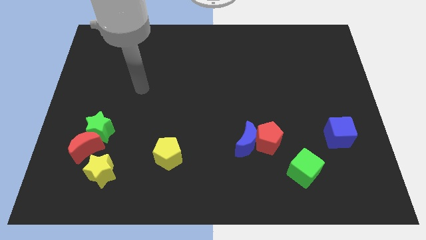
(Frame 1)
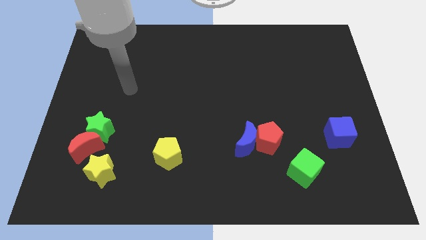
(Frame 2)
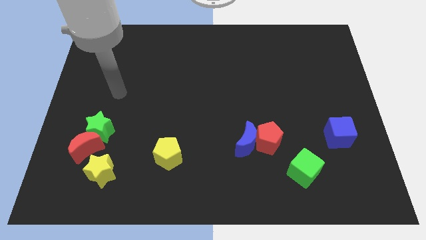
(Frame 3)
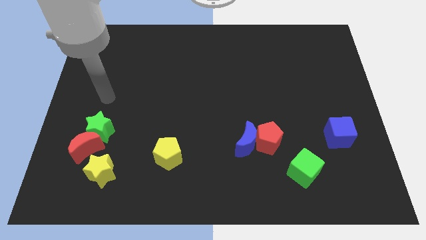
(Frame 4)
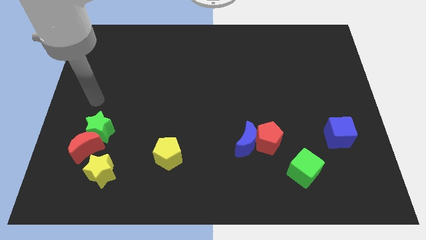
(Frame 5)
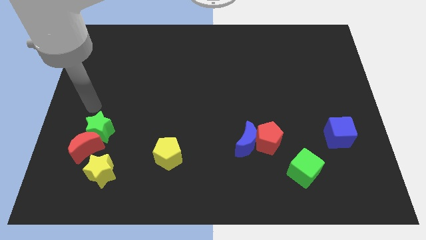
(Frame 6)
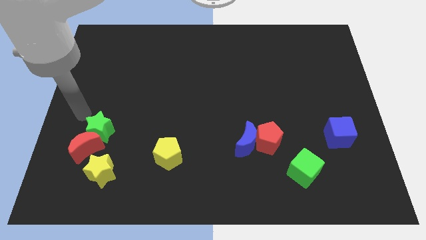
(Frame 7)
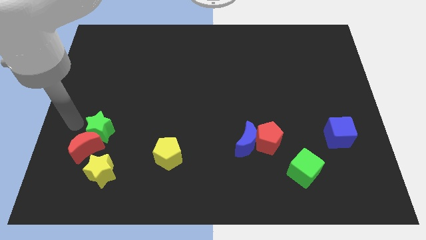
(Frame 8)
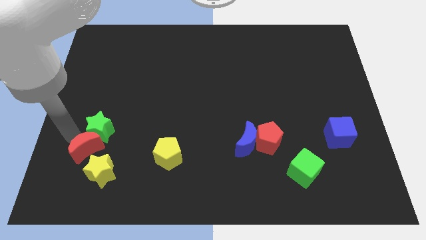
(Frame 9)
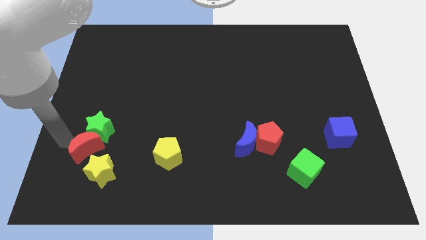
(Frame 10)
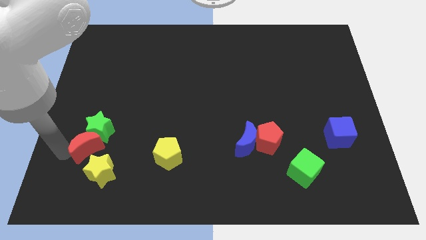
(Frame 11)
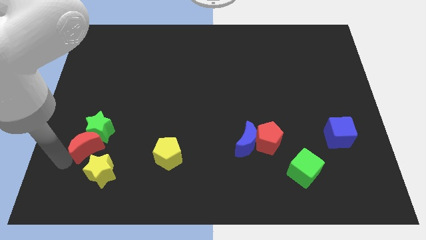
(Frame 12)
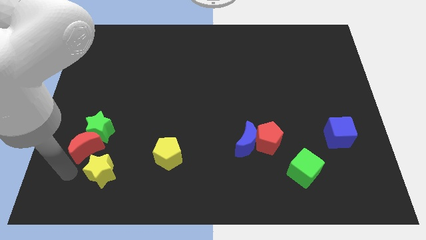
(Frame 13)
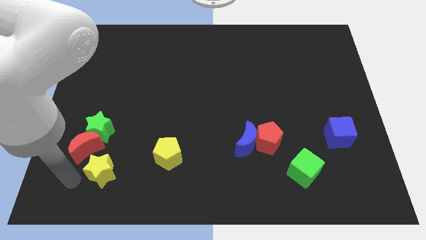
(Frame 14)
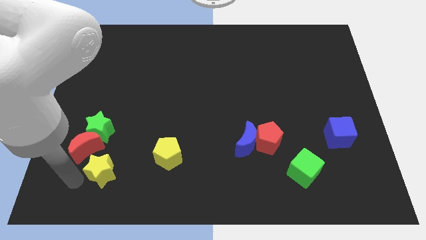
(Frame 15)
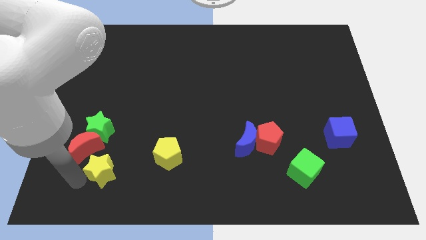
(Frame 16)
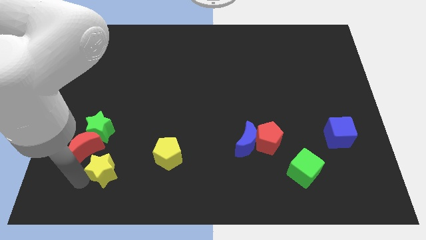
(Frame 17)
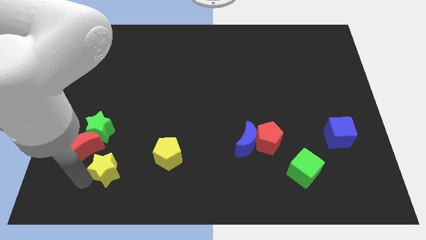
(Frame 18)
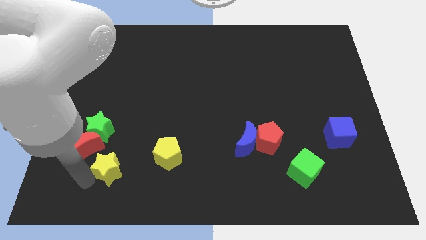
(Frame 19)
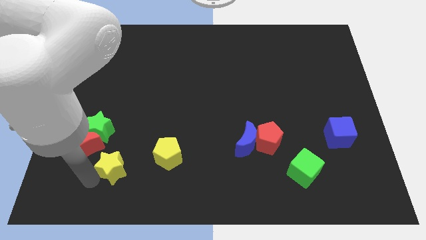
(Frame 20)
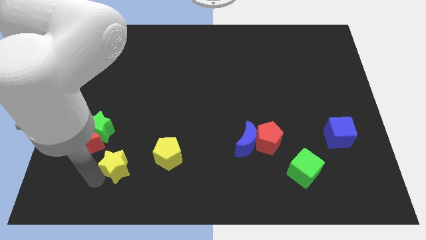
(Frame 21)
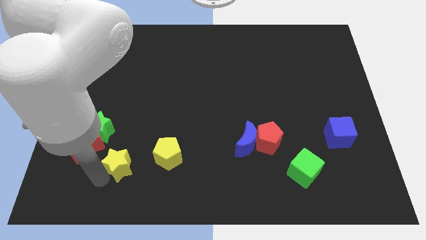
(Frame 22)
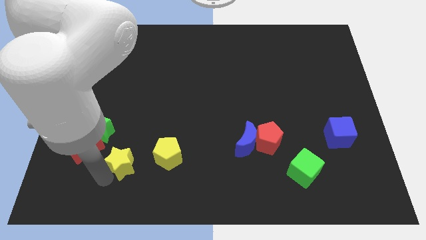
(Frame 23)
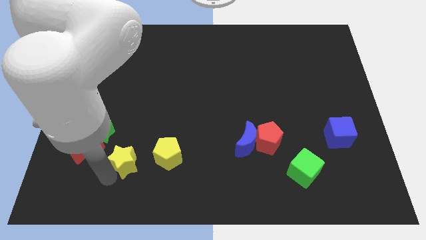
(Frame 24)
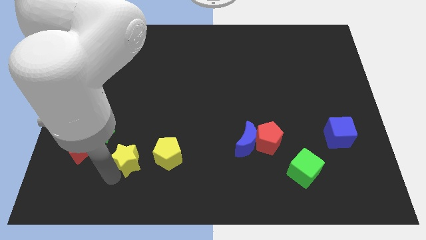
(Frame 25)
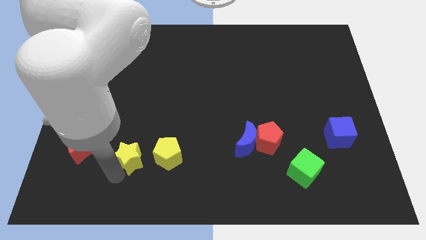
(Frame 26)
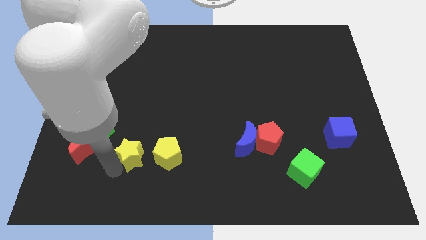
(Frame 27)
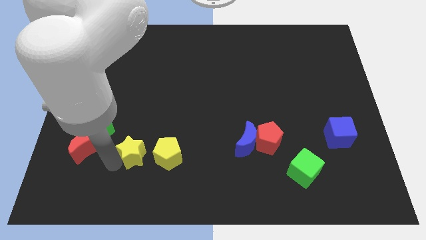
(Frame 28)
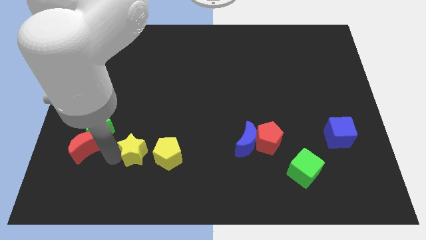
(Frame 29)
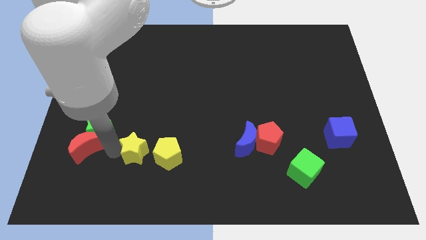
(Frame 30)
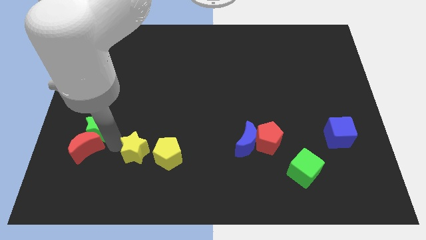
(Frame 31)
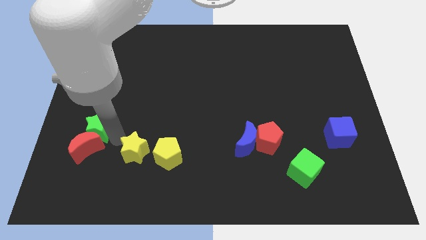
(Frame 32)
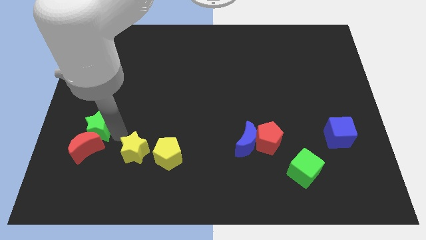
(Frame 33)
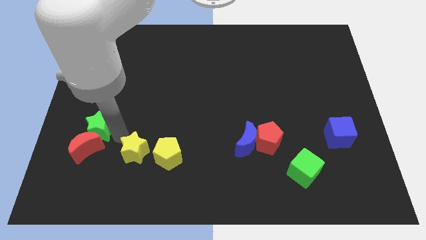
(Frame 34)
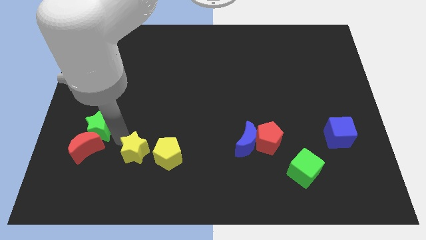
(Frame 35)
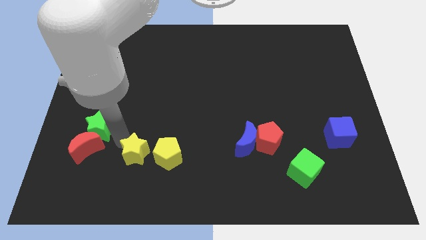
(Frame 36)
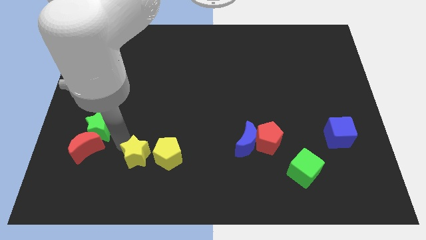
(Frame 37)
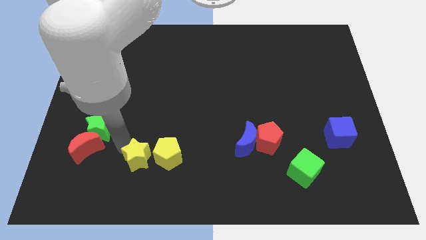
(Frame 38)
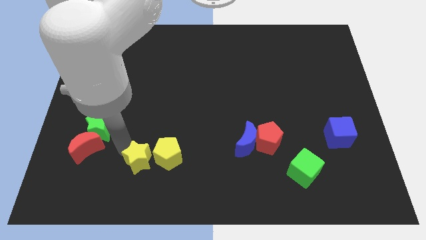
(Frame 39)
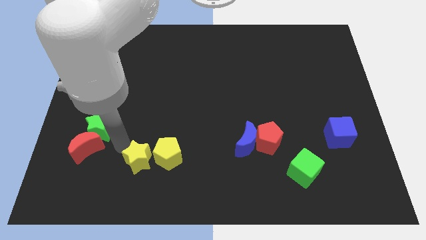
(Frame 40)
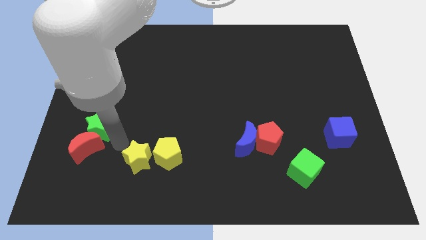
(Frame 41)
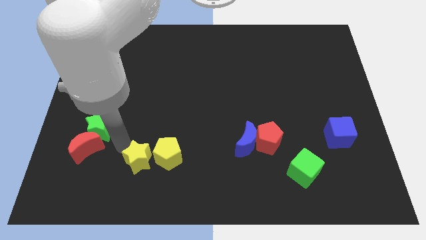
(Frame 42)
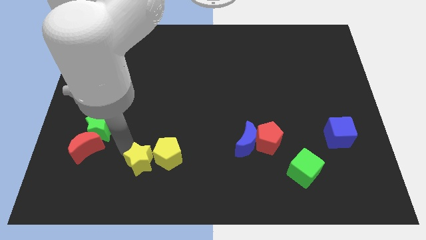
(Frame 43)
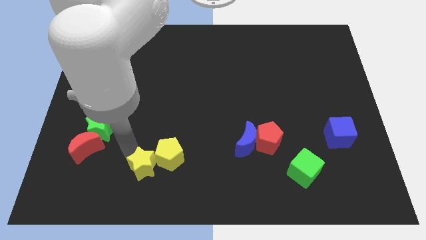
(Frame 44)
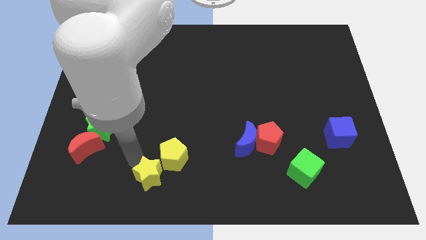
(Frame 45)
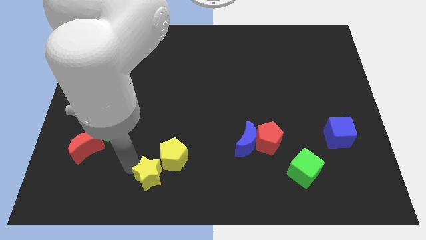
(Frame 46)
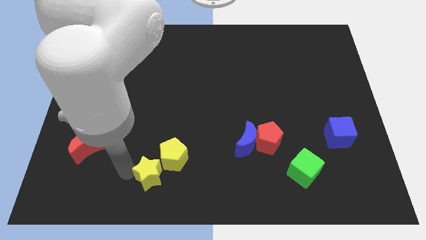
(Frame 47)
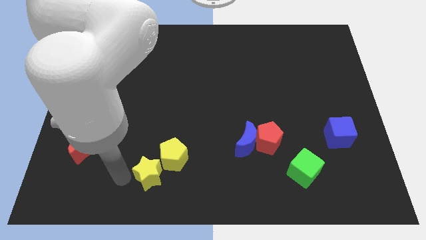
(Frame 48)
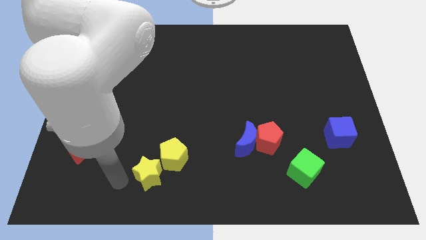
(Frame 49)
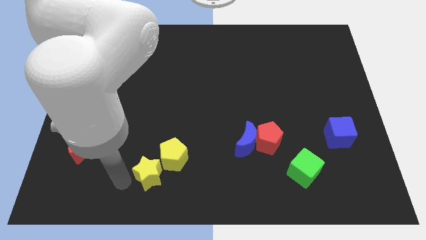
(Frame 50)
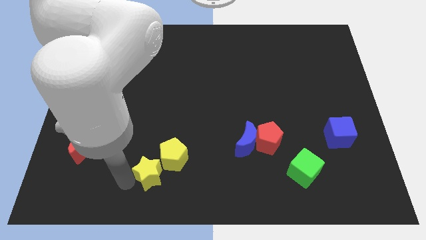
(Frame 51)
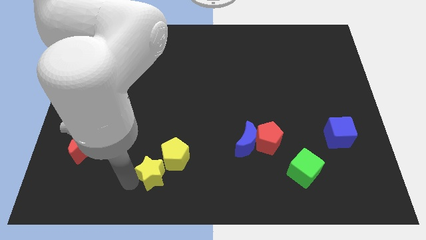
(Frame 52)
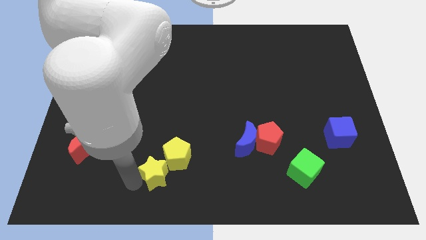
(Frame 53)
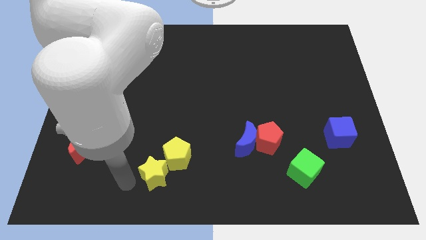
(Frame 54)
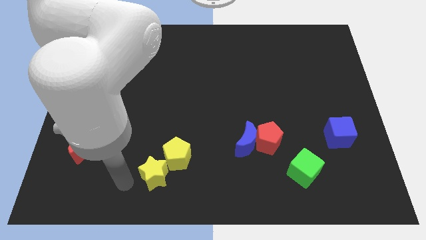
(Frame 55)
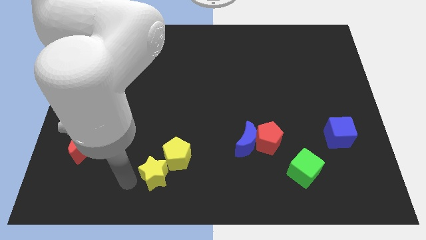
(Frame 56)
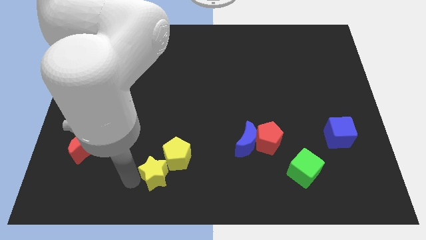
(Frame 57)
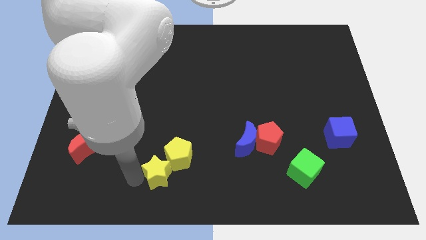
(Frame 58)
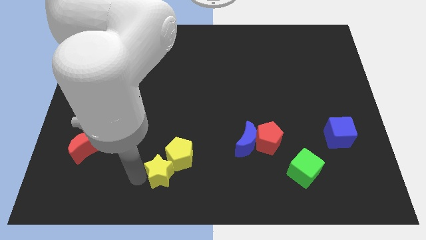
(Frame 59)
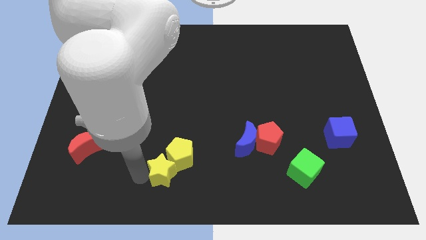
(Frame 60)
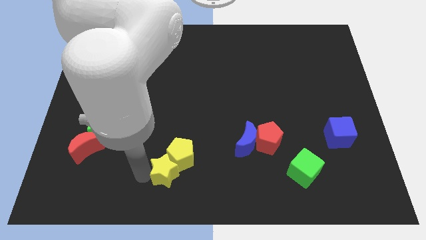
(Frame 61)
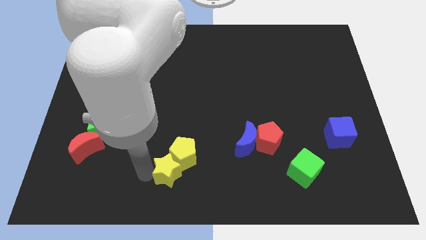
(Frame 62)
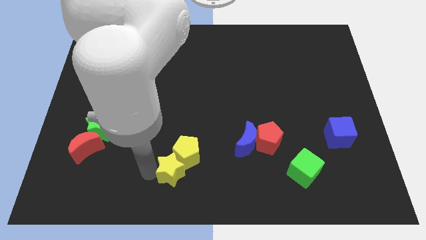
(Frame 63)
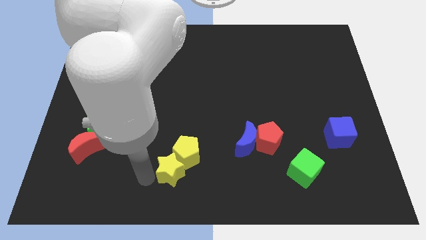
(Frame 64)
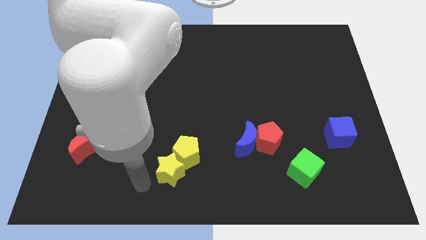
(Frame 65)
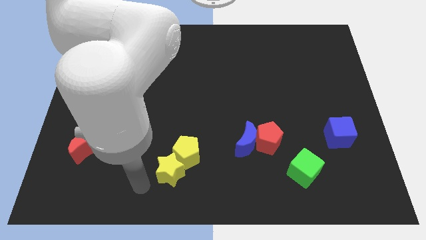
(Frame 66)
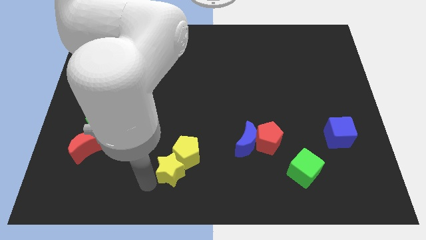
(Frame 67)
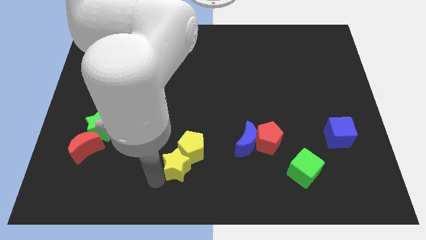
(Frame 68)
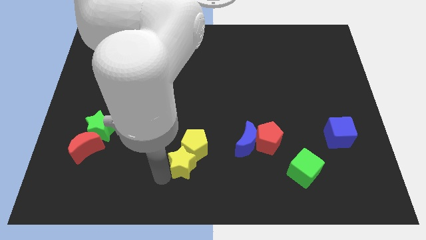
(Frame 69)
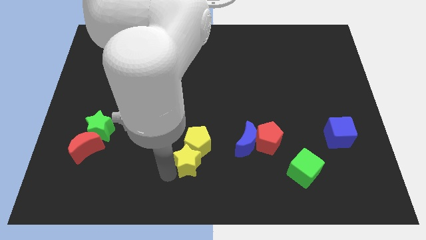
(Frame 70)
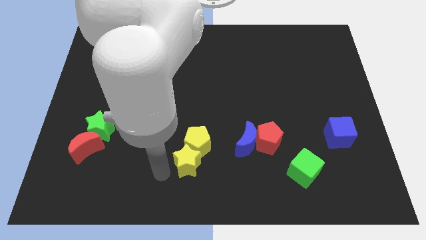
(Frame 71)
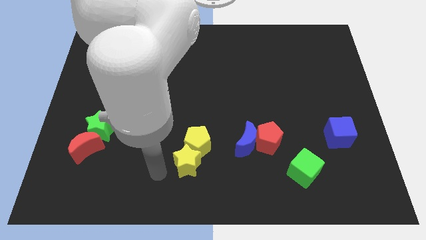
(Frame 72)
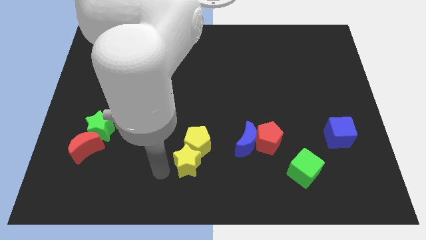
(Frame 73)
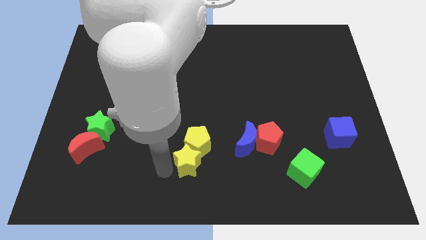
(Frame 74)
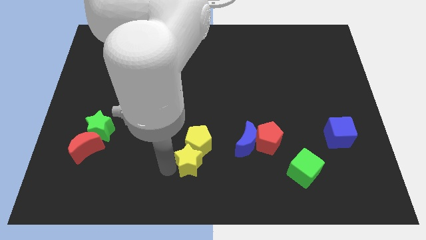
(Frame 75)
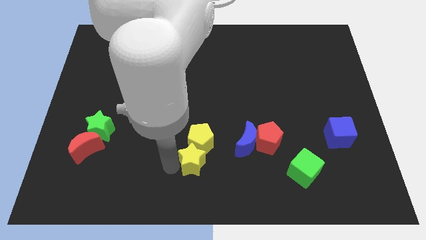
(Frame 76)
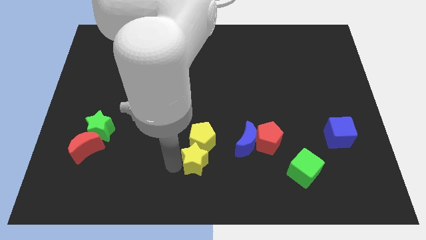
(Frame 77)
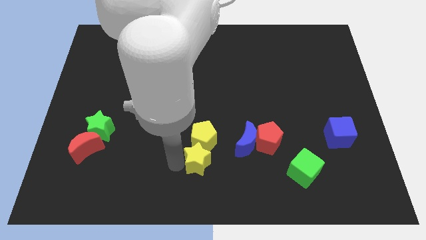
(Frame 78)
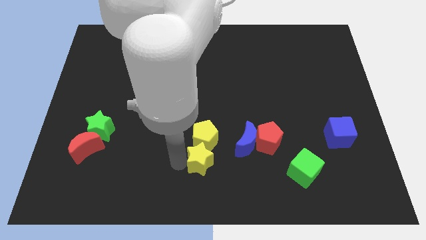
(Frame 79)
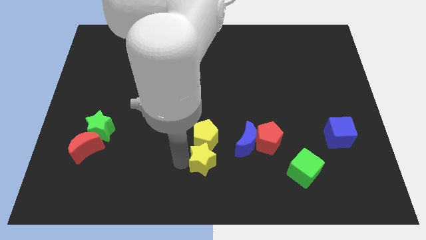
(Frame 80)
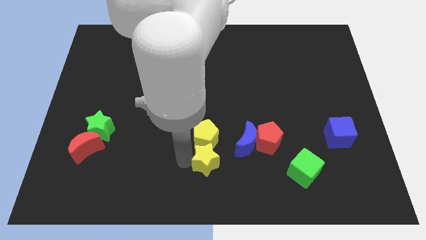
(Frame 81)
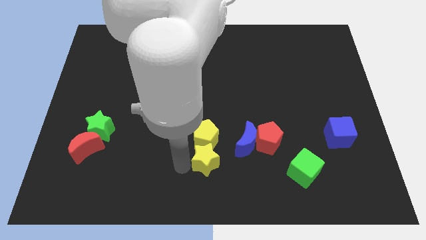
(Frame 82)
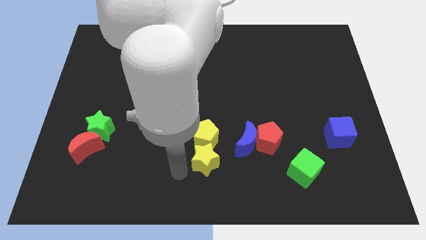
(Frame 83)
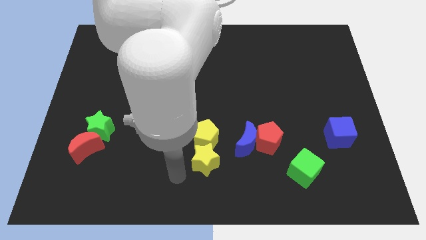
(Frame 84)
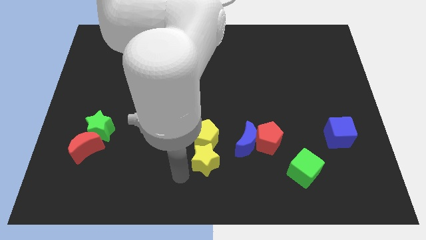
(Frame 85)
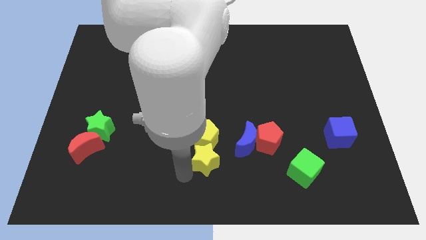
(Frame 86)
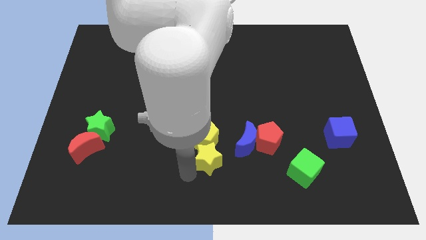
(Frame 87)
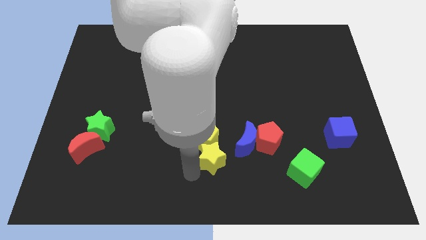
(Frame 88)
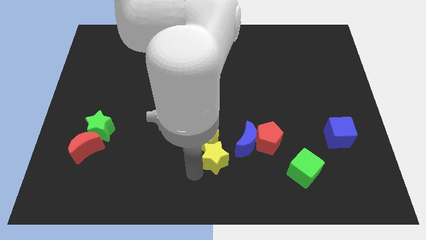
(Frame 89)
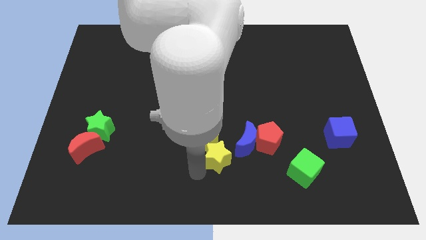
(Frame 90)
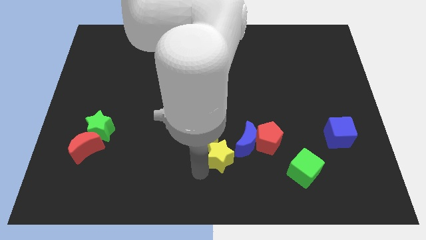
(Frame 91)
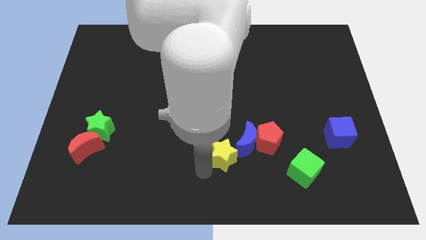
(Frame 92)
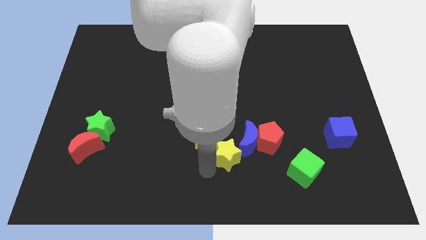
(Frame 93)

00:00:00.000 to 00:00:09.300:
put the yellow star towards the blue moon
